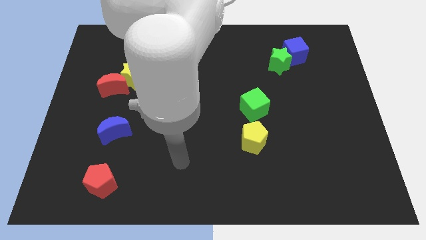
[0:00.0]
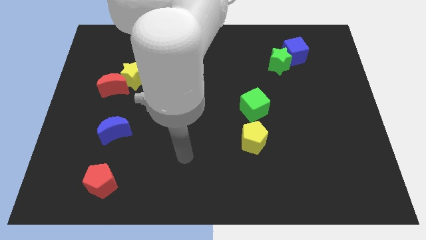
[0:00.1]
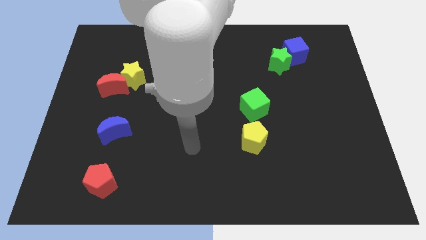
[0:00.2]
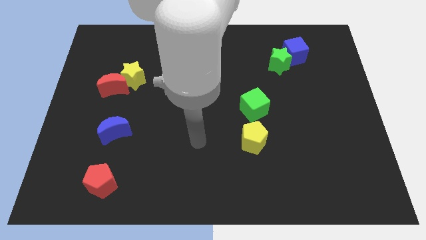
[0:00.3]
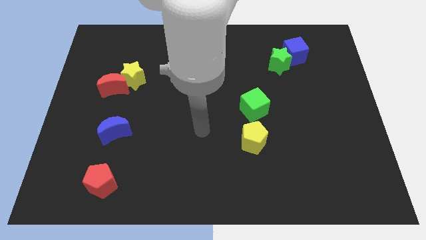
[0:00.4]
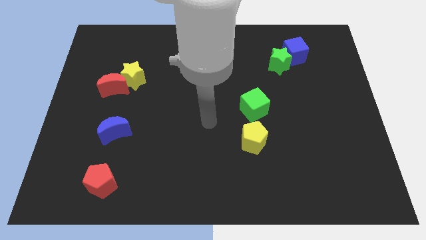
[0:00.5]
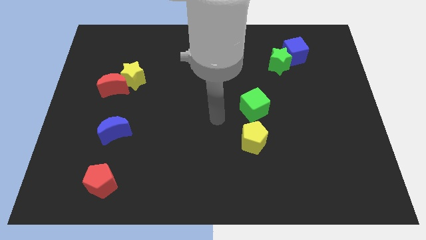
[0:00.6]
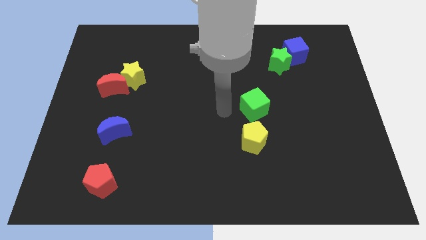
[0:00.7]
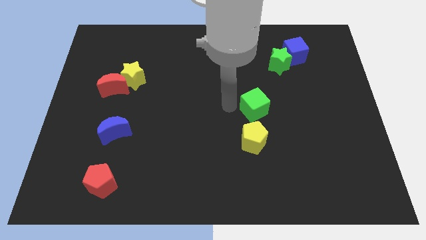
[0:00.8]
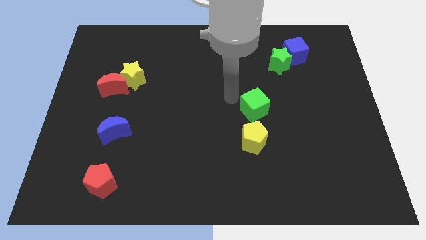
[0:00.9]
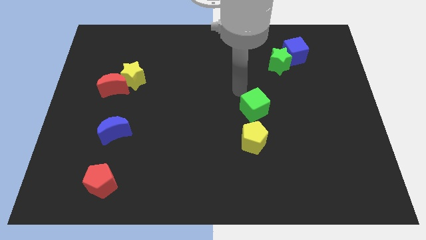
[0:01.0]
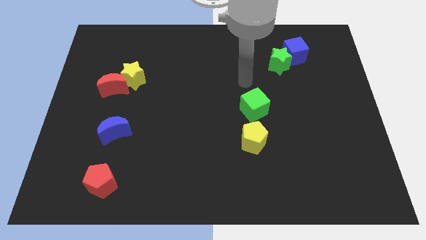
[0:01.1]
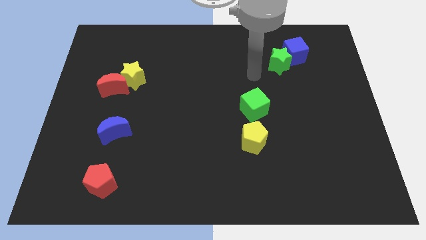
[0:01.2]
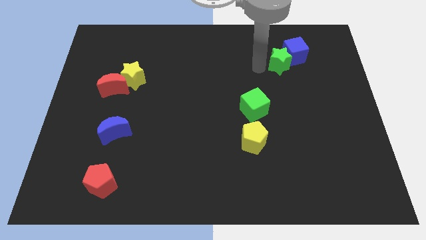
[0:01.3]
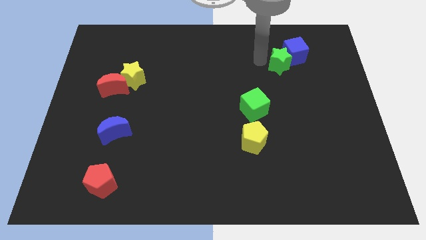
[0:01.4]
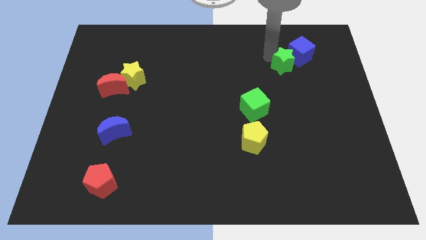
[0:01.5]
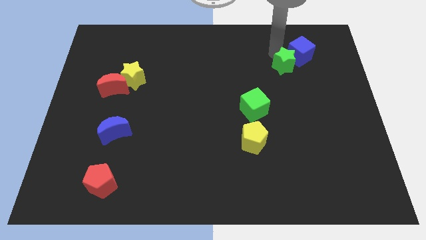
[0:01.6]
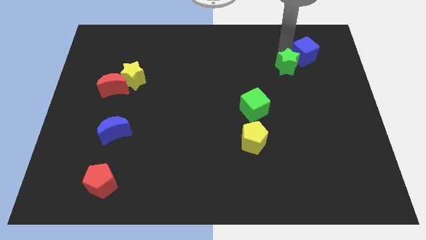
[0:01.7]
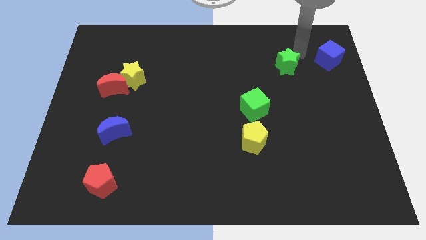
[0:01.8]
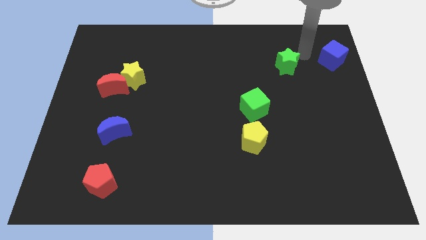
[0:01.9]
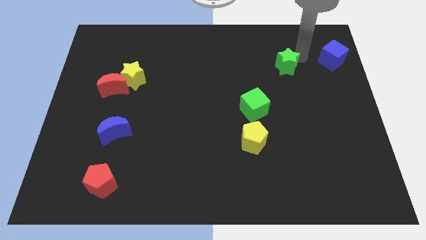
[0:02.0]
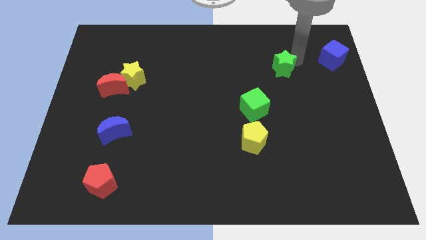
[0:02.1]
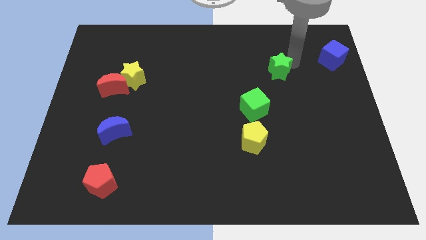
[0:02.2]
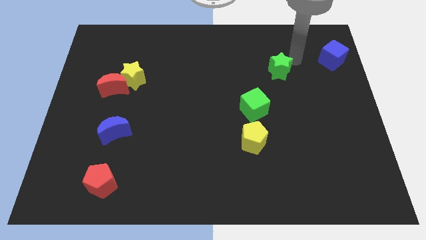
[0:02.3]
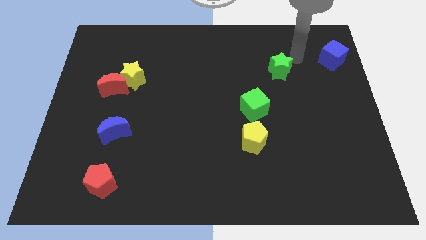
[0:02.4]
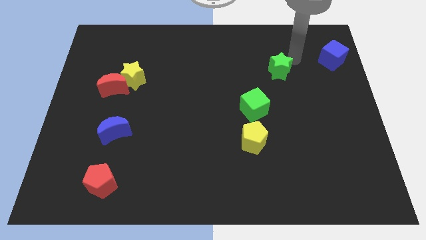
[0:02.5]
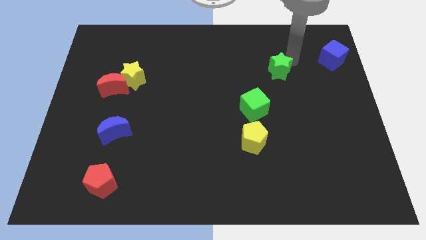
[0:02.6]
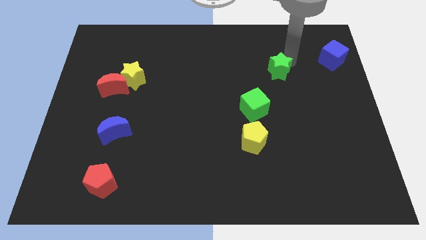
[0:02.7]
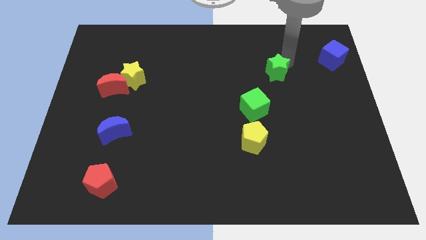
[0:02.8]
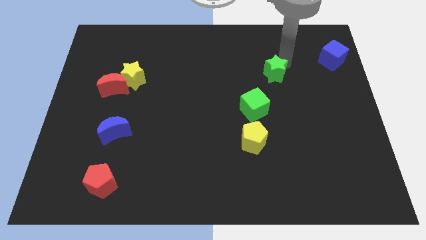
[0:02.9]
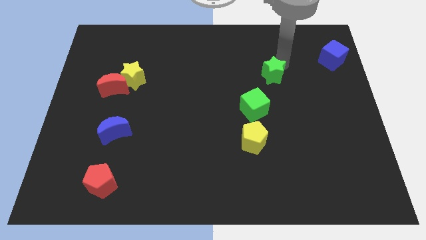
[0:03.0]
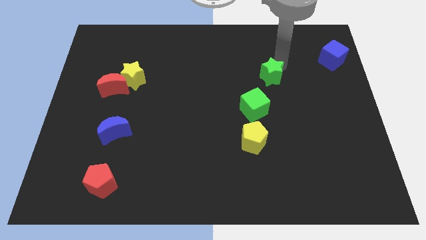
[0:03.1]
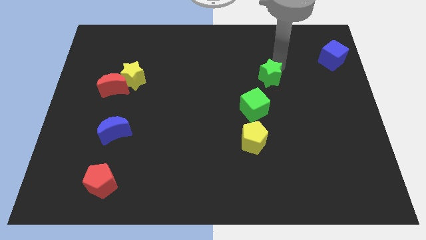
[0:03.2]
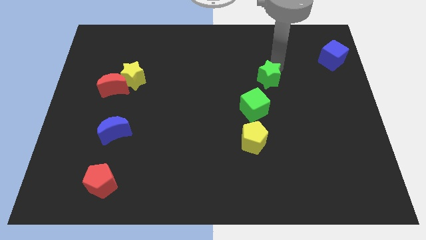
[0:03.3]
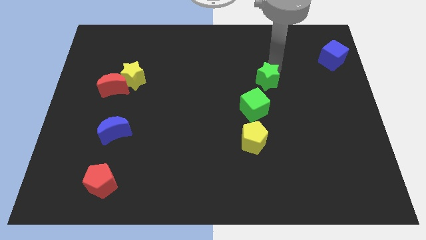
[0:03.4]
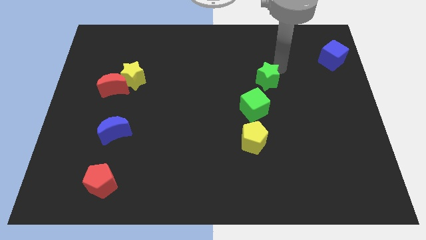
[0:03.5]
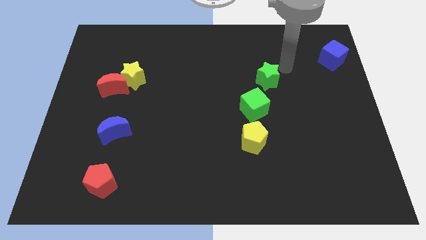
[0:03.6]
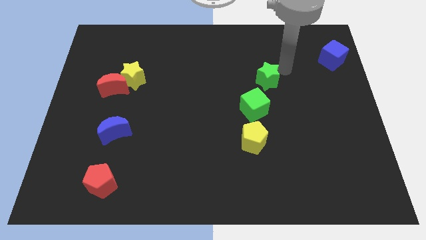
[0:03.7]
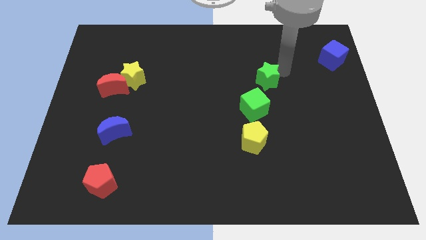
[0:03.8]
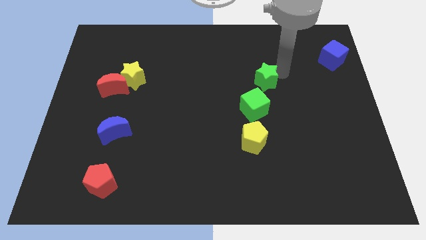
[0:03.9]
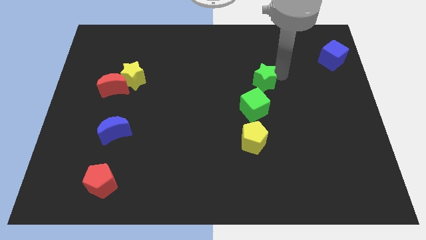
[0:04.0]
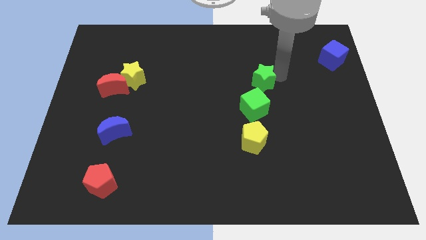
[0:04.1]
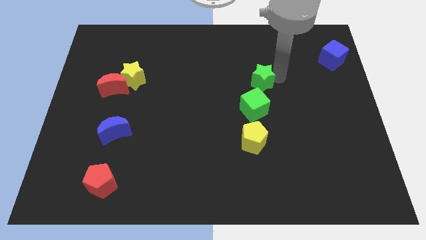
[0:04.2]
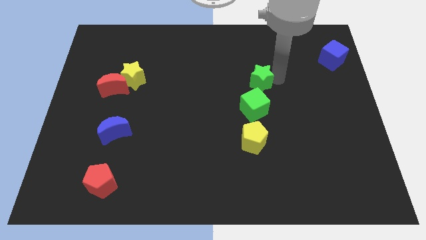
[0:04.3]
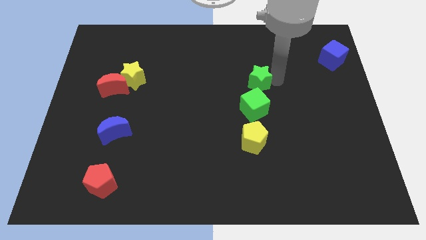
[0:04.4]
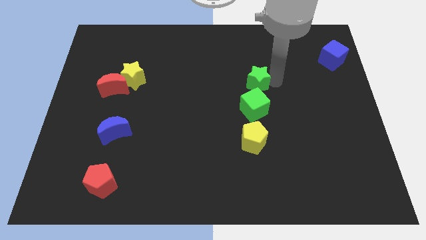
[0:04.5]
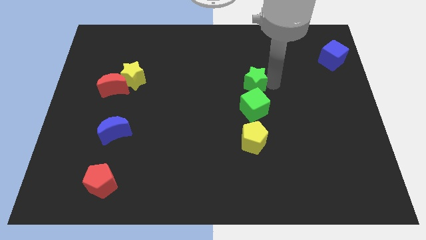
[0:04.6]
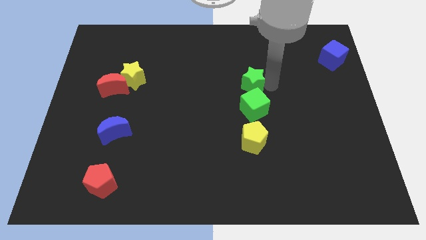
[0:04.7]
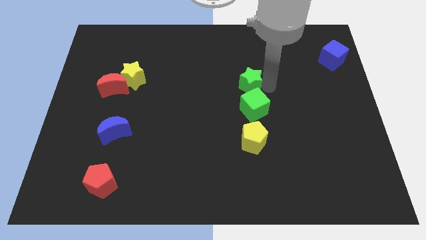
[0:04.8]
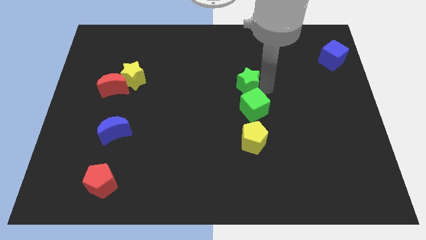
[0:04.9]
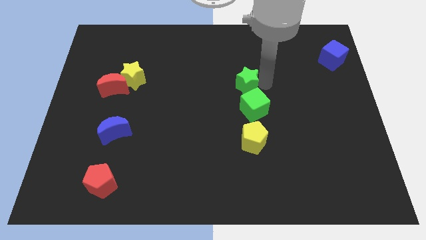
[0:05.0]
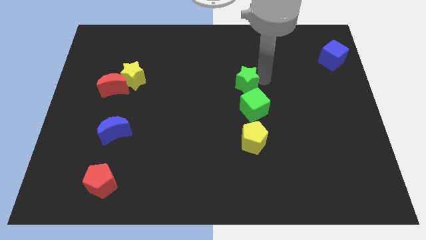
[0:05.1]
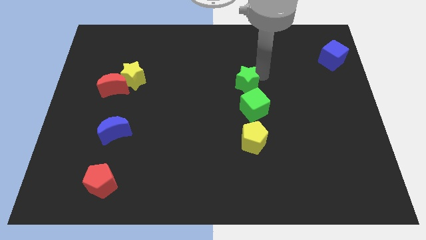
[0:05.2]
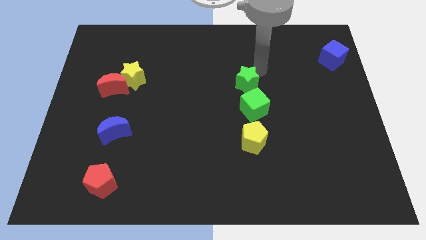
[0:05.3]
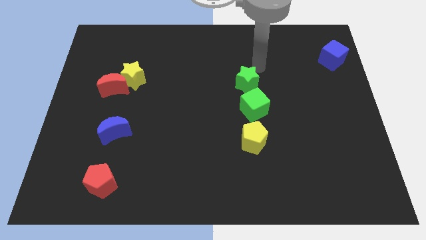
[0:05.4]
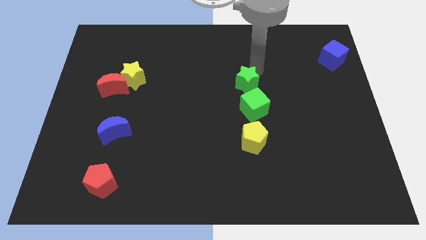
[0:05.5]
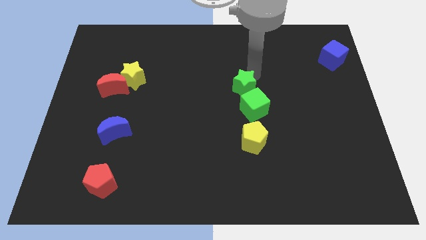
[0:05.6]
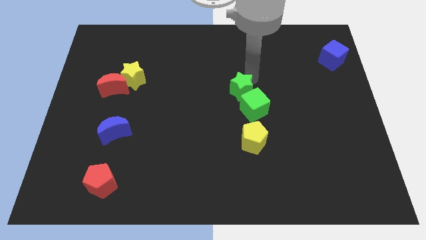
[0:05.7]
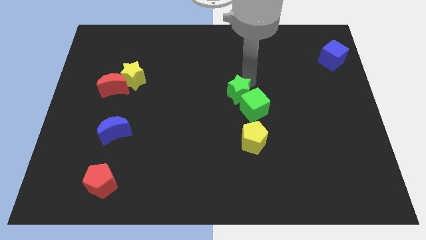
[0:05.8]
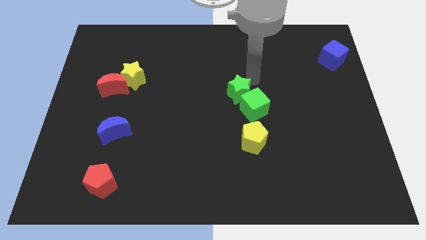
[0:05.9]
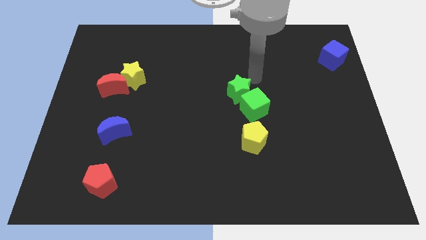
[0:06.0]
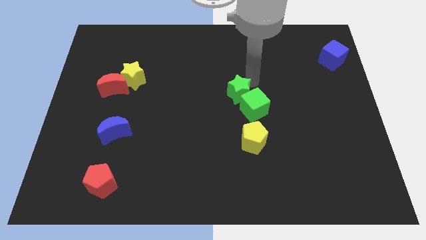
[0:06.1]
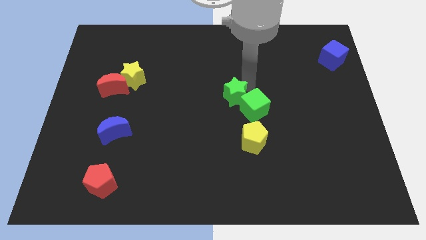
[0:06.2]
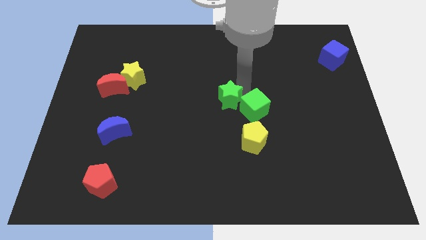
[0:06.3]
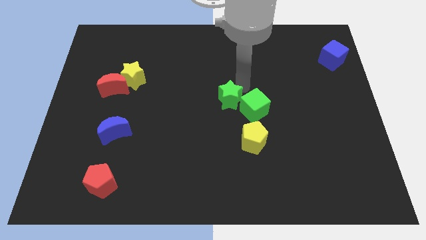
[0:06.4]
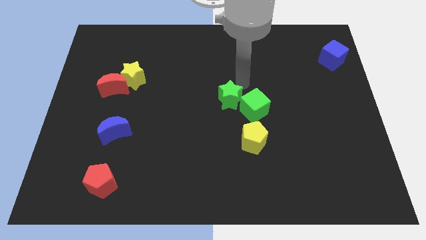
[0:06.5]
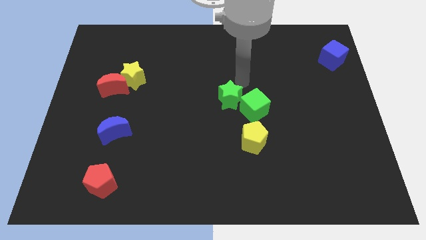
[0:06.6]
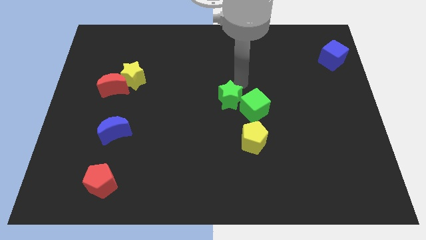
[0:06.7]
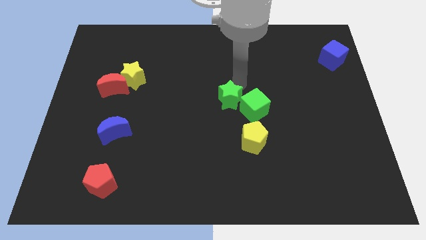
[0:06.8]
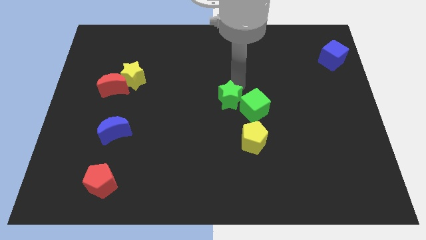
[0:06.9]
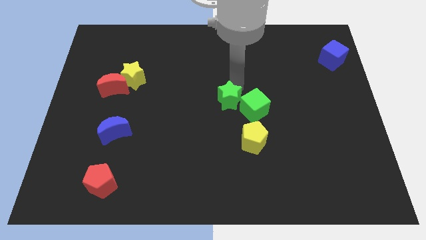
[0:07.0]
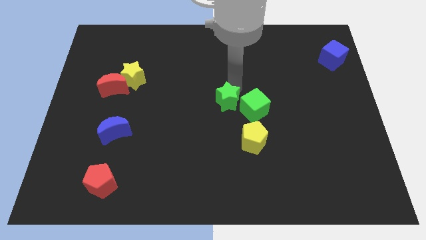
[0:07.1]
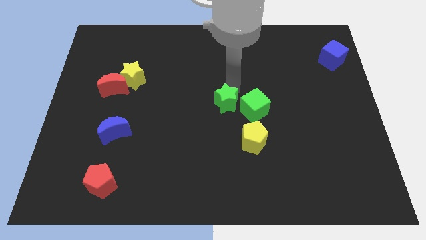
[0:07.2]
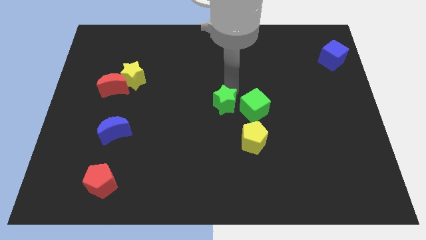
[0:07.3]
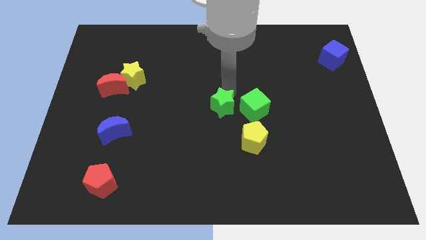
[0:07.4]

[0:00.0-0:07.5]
slide the green star downwards and to the left diagonally

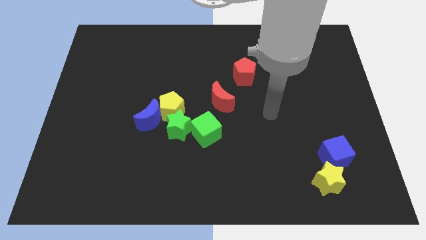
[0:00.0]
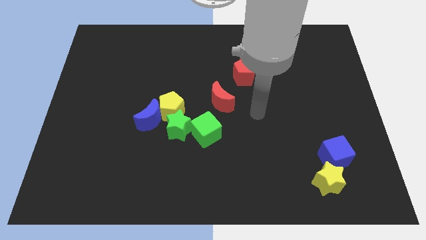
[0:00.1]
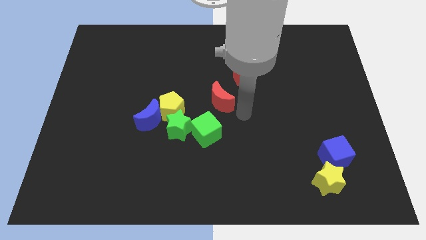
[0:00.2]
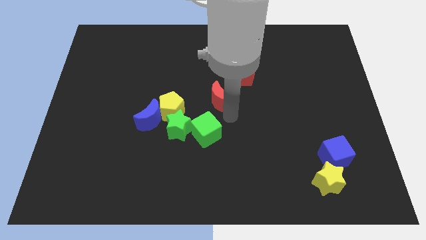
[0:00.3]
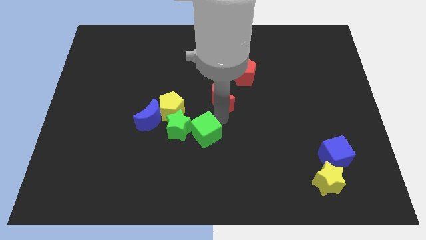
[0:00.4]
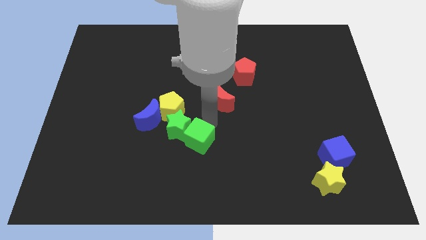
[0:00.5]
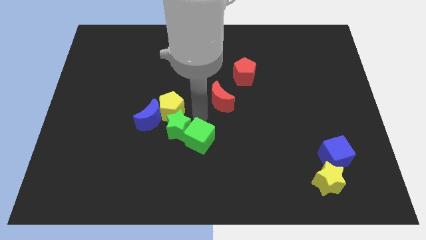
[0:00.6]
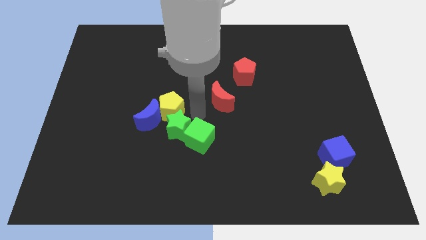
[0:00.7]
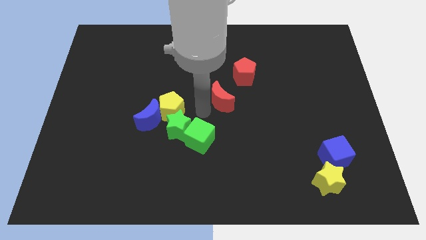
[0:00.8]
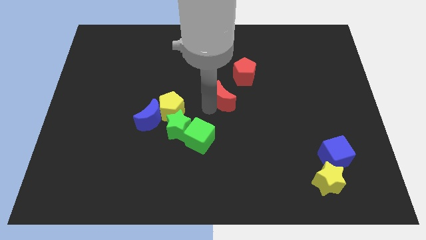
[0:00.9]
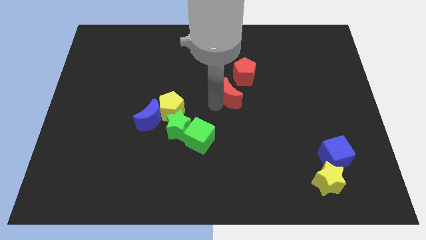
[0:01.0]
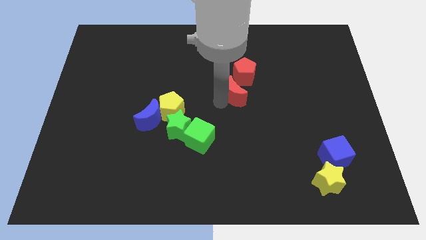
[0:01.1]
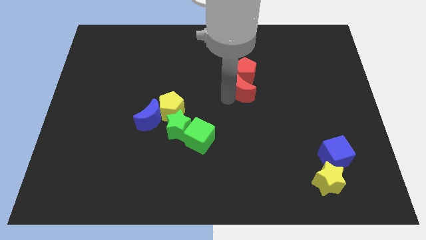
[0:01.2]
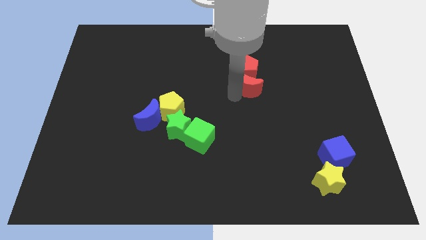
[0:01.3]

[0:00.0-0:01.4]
move the red moon somewhat up and right diagonally
